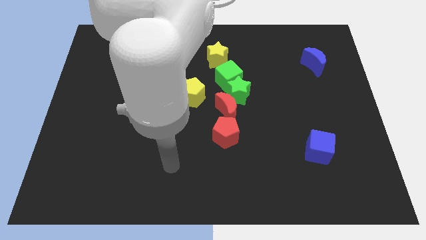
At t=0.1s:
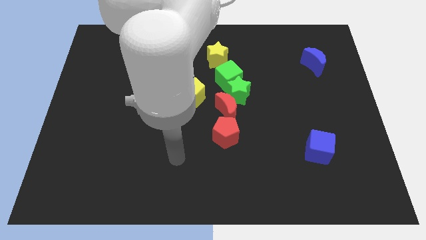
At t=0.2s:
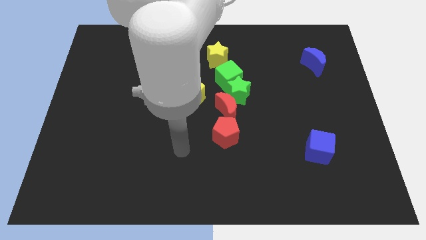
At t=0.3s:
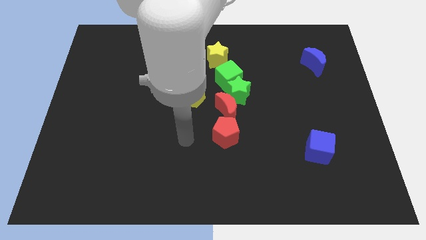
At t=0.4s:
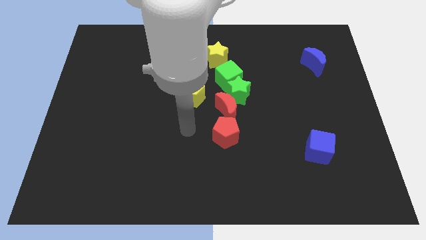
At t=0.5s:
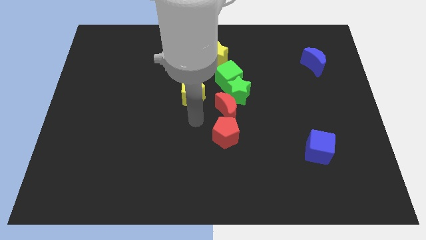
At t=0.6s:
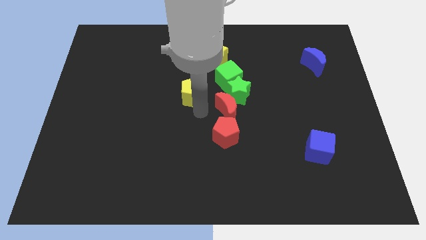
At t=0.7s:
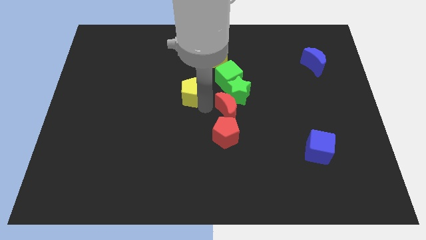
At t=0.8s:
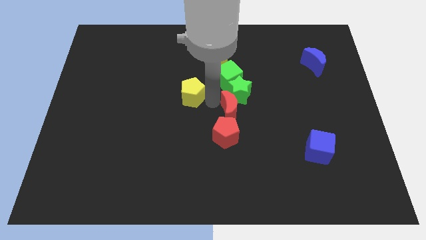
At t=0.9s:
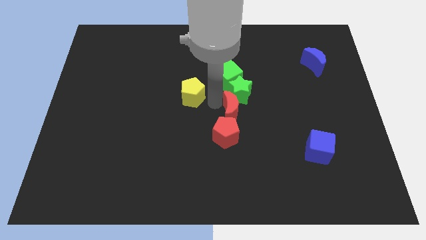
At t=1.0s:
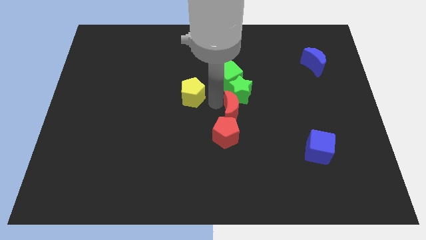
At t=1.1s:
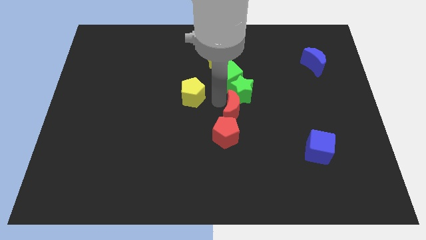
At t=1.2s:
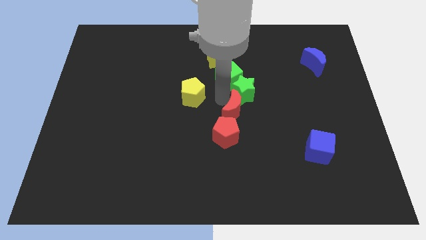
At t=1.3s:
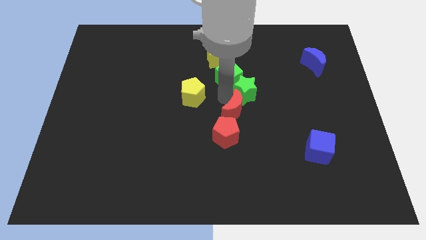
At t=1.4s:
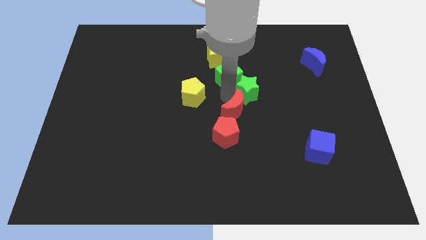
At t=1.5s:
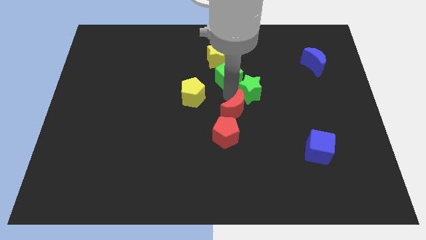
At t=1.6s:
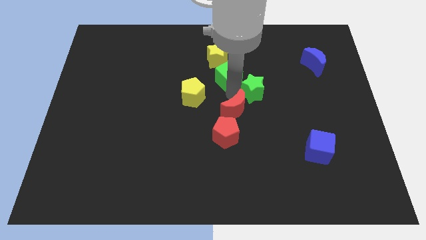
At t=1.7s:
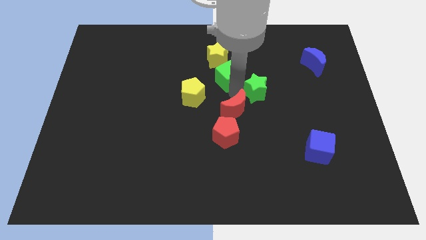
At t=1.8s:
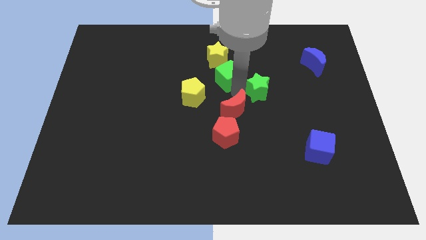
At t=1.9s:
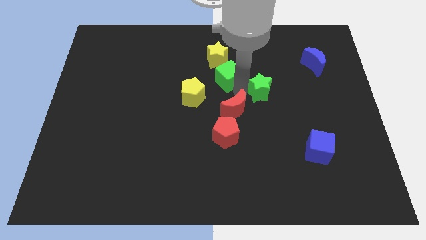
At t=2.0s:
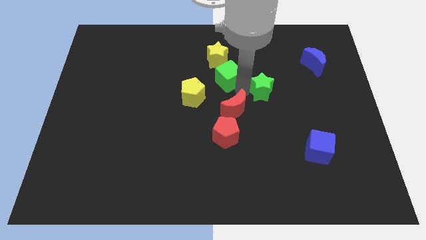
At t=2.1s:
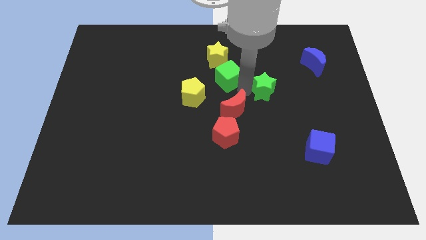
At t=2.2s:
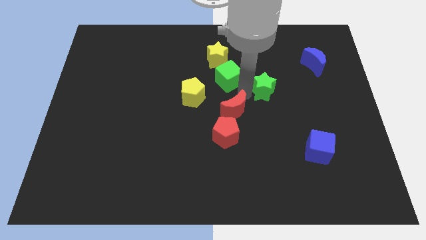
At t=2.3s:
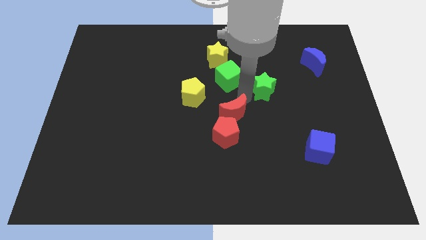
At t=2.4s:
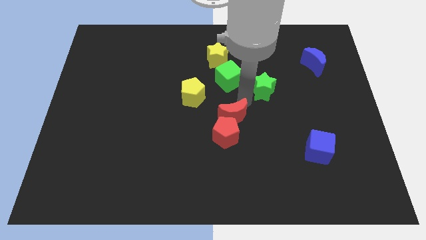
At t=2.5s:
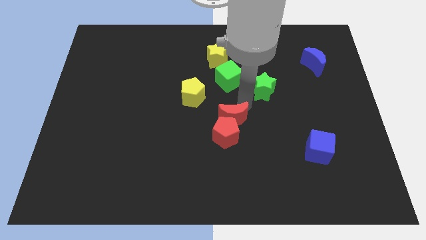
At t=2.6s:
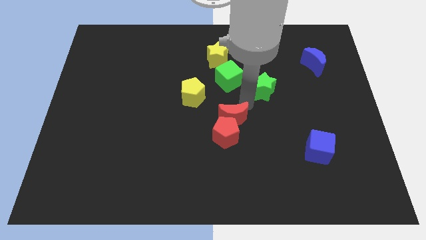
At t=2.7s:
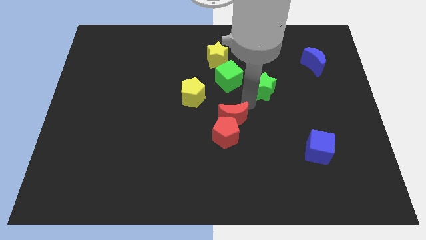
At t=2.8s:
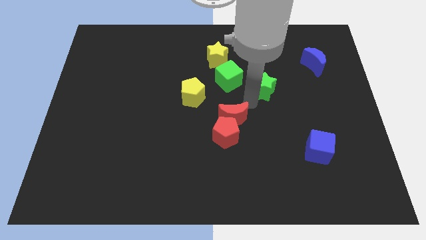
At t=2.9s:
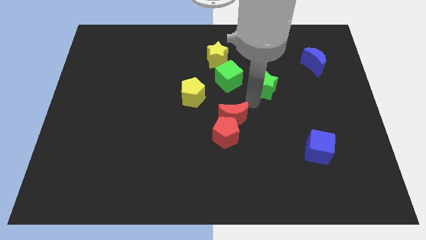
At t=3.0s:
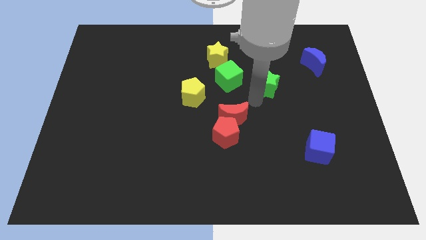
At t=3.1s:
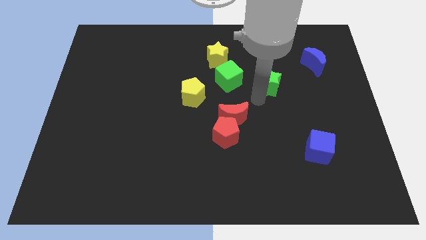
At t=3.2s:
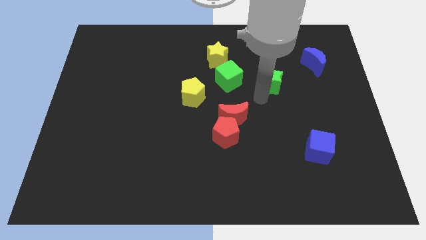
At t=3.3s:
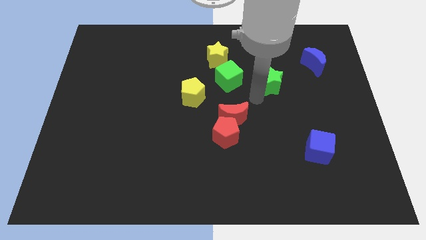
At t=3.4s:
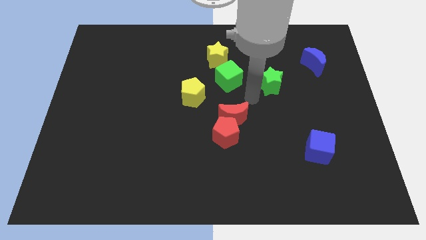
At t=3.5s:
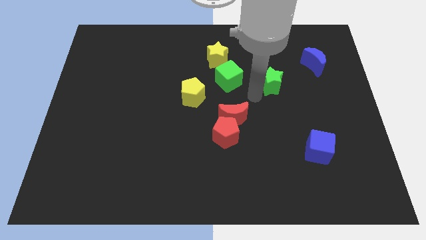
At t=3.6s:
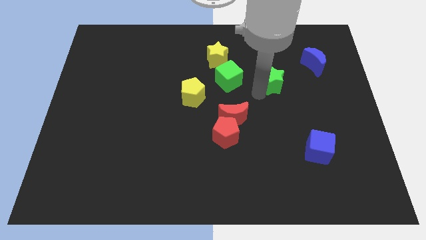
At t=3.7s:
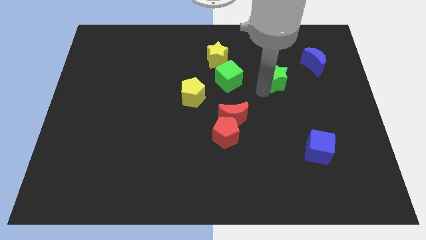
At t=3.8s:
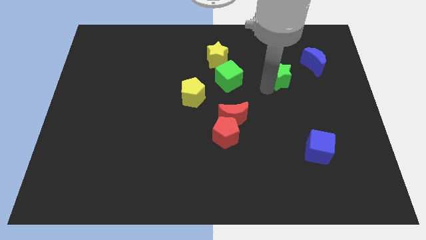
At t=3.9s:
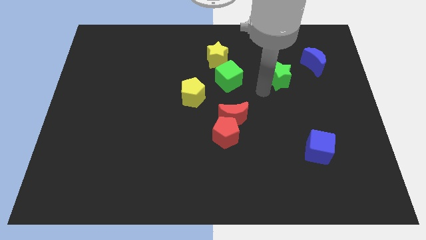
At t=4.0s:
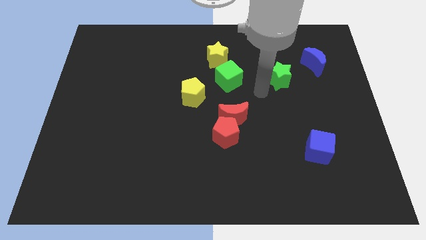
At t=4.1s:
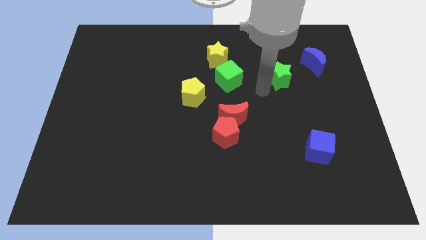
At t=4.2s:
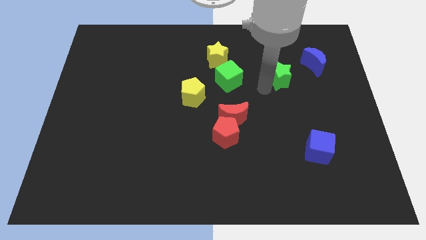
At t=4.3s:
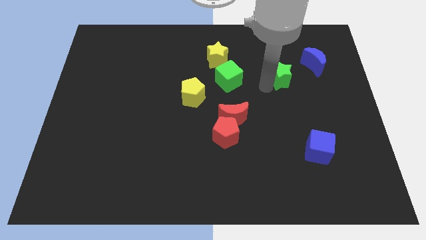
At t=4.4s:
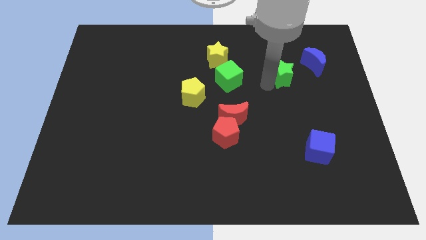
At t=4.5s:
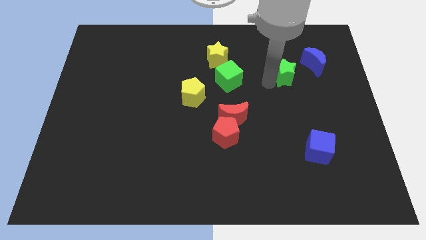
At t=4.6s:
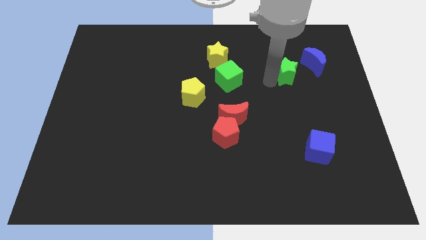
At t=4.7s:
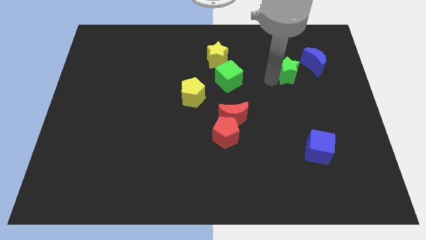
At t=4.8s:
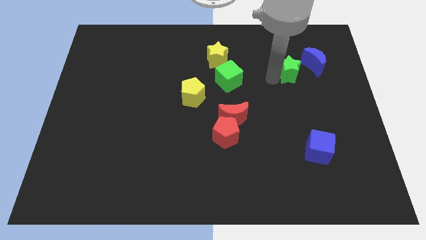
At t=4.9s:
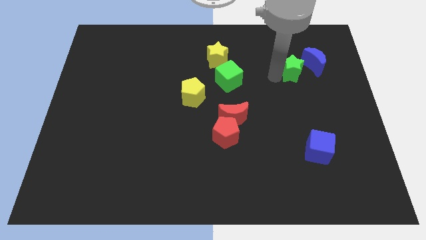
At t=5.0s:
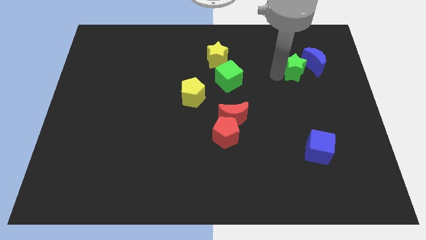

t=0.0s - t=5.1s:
push the green star close to the blue moon

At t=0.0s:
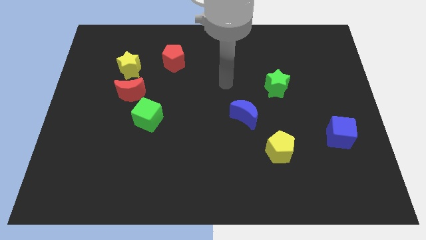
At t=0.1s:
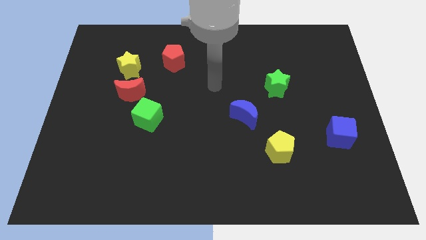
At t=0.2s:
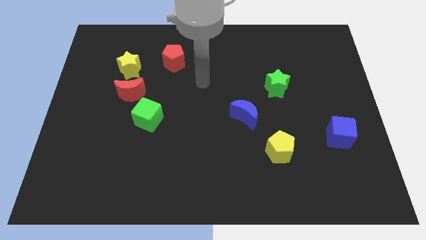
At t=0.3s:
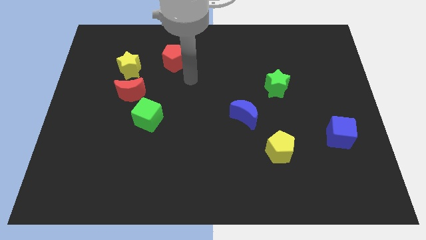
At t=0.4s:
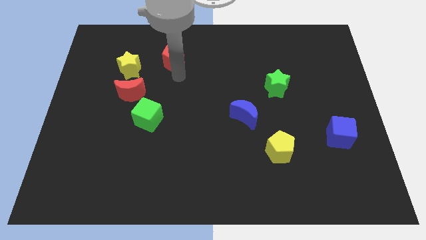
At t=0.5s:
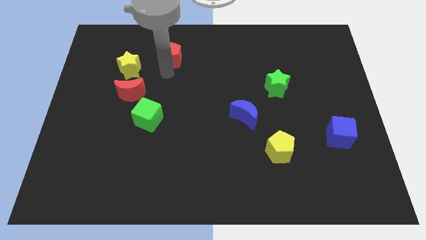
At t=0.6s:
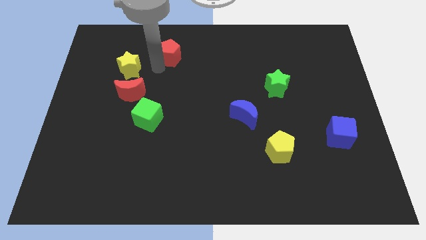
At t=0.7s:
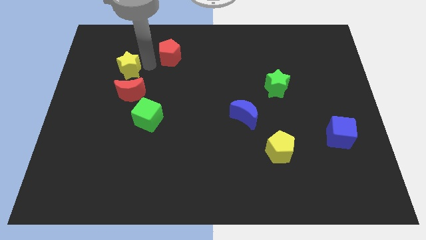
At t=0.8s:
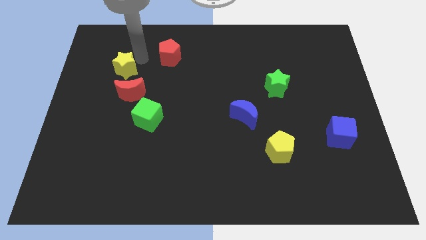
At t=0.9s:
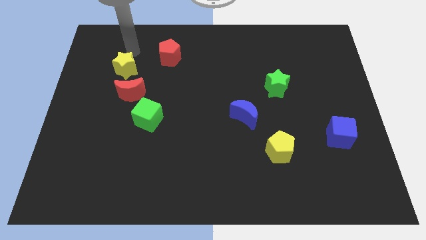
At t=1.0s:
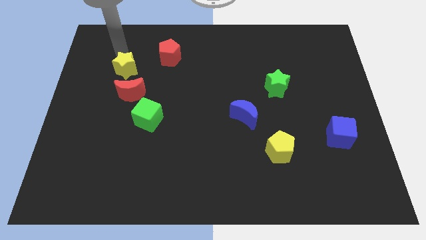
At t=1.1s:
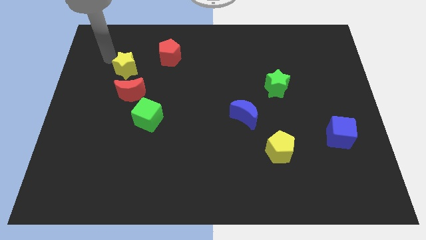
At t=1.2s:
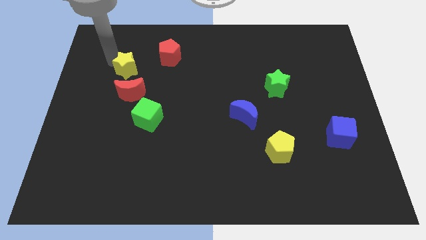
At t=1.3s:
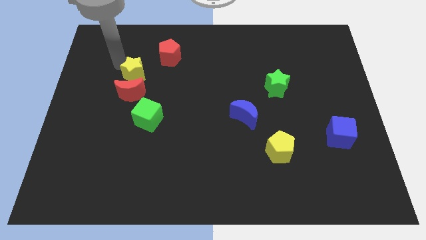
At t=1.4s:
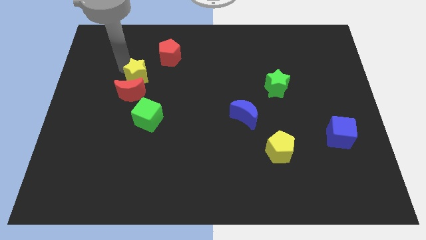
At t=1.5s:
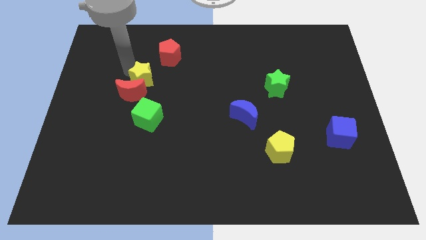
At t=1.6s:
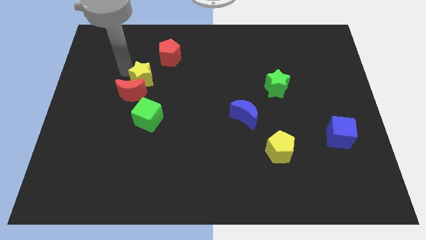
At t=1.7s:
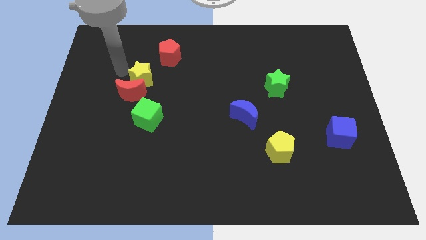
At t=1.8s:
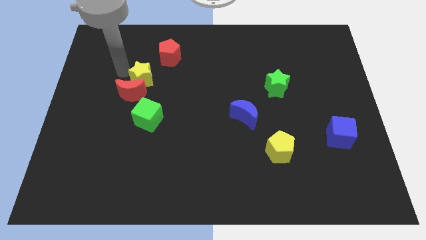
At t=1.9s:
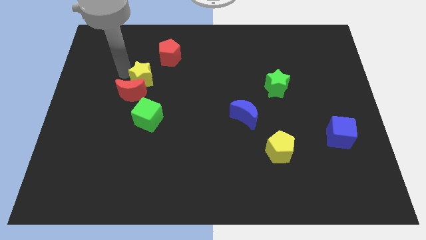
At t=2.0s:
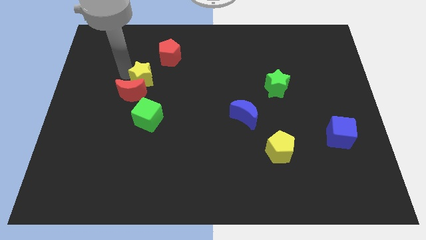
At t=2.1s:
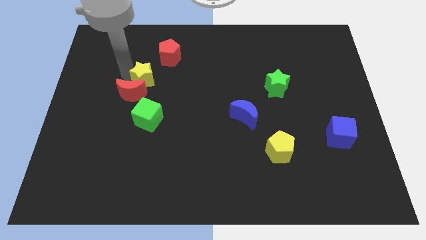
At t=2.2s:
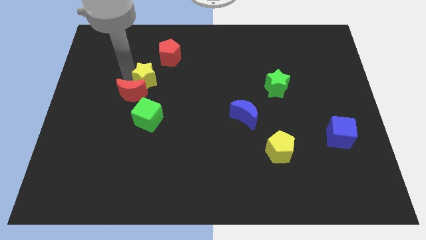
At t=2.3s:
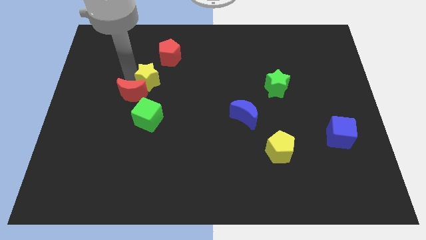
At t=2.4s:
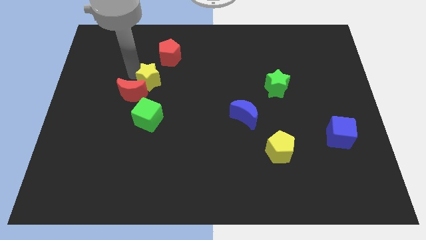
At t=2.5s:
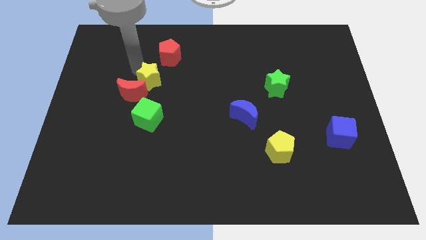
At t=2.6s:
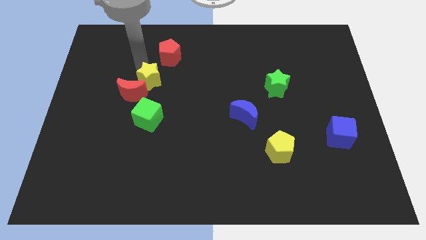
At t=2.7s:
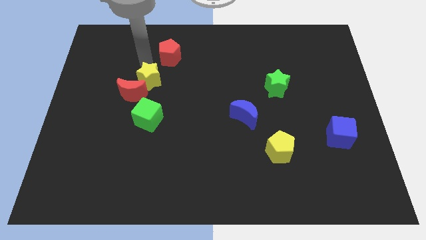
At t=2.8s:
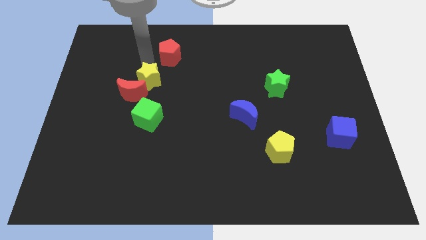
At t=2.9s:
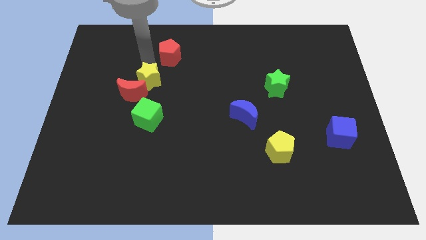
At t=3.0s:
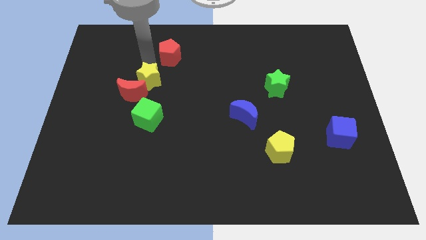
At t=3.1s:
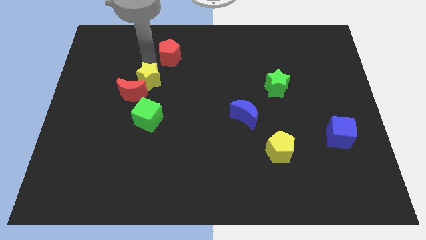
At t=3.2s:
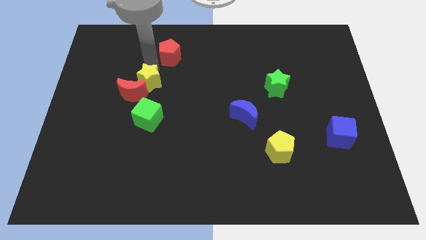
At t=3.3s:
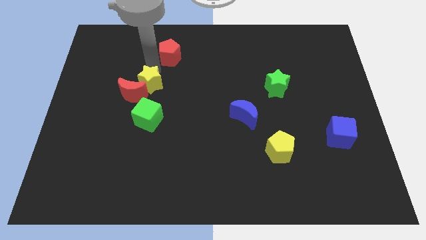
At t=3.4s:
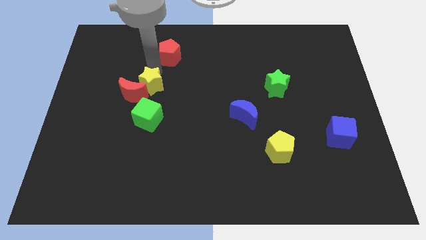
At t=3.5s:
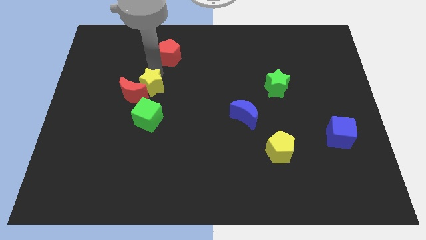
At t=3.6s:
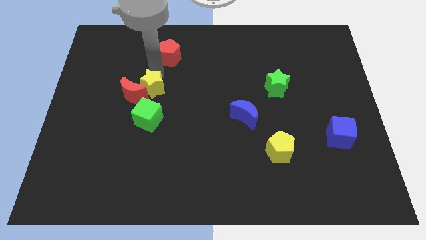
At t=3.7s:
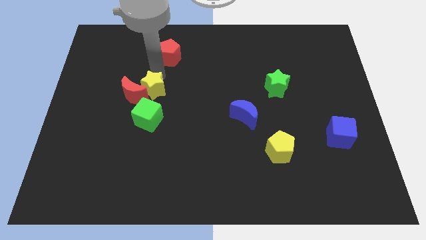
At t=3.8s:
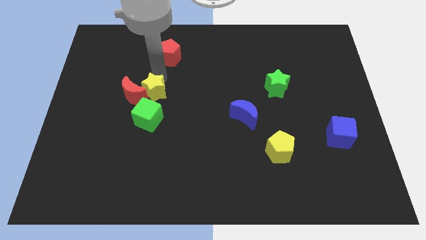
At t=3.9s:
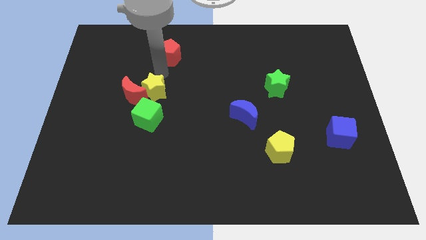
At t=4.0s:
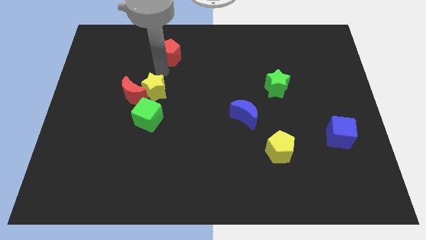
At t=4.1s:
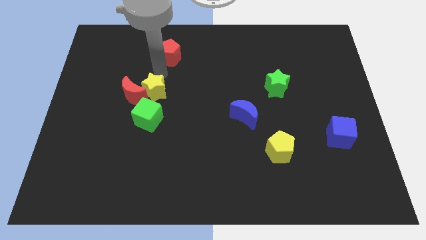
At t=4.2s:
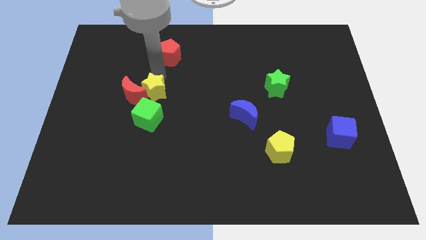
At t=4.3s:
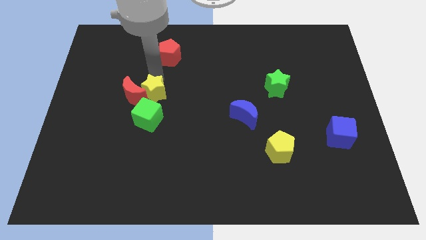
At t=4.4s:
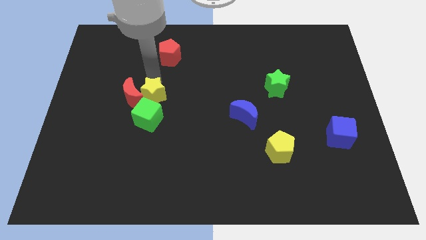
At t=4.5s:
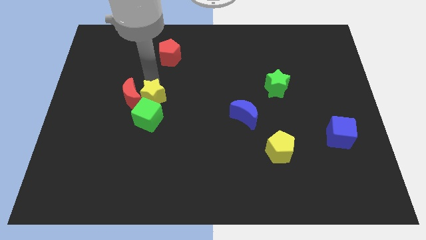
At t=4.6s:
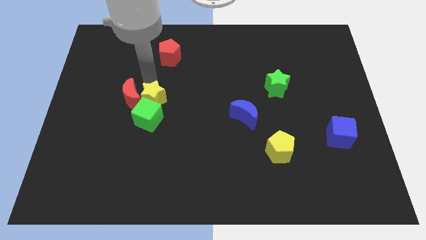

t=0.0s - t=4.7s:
move the yellow star to the green cube
